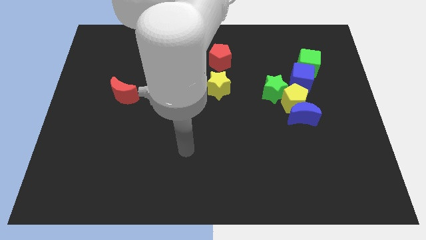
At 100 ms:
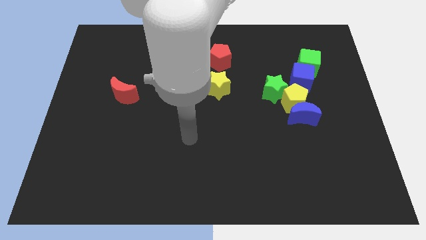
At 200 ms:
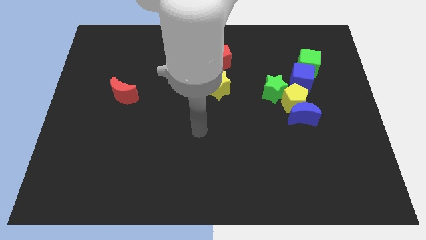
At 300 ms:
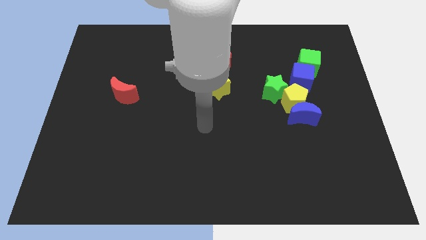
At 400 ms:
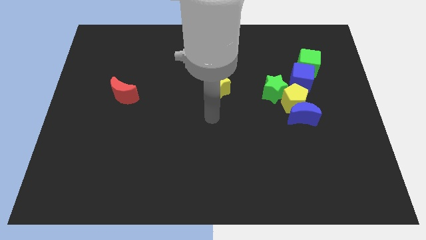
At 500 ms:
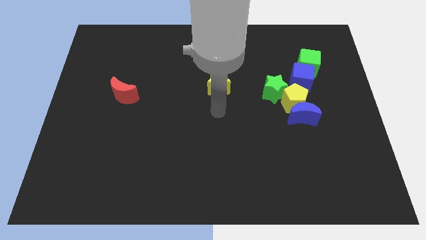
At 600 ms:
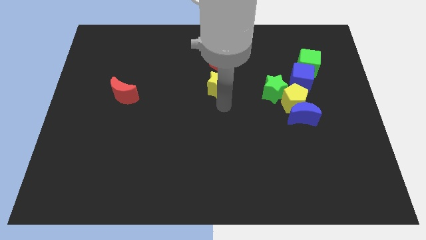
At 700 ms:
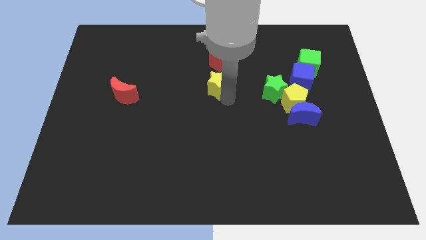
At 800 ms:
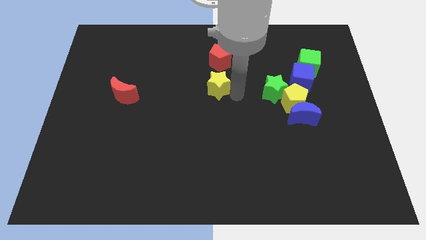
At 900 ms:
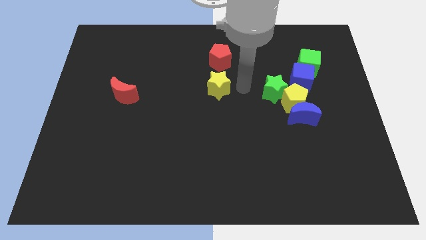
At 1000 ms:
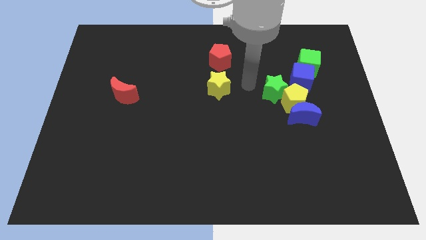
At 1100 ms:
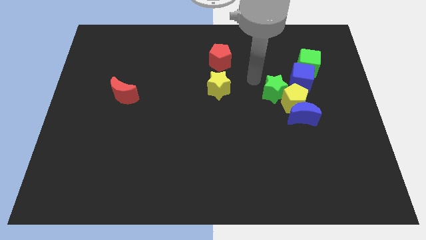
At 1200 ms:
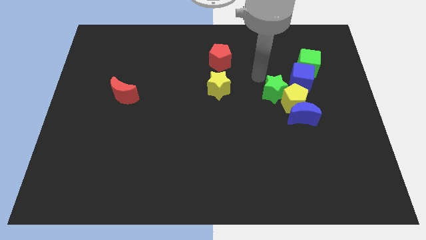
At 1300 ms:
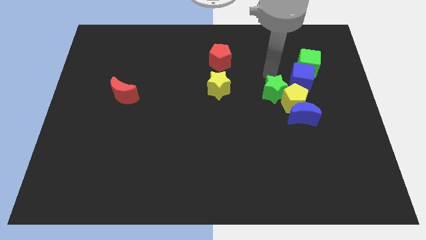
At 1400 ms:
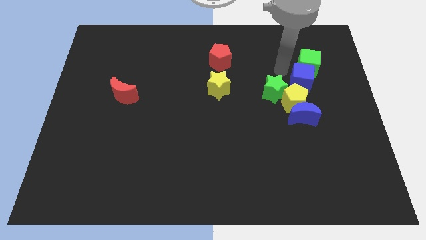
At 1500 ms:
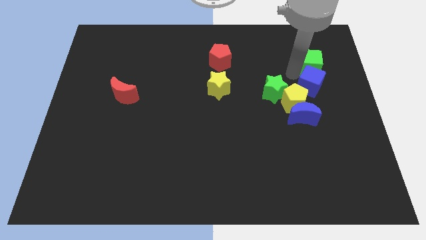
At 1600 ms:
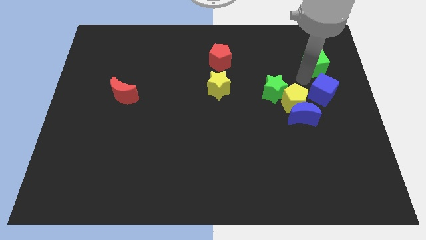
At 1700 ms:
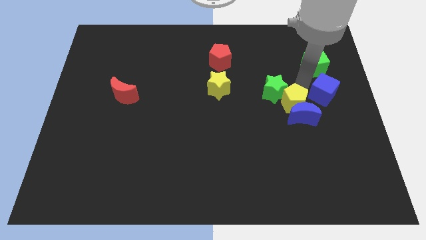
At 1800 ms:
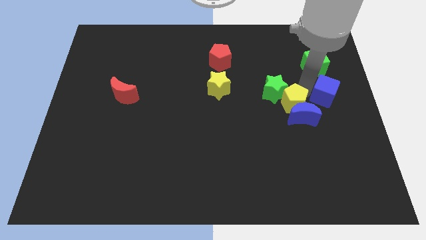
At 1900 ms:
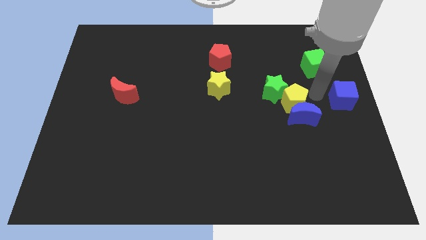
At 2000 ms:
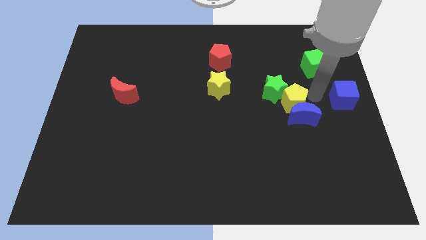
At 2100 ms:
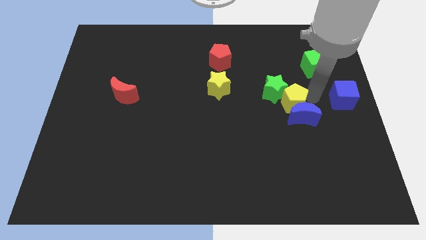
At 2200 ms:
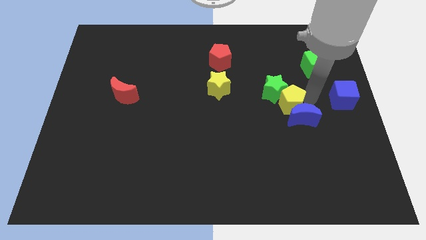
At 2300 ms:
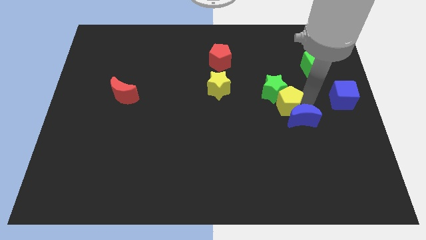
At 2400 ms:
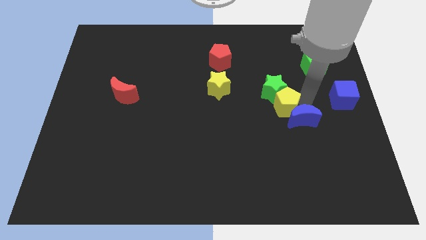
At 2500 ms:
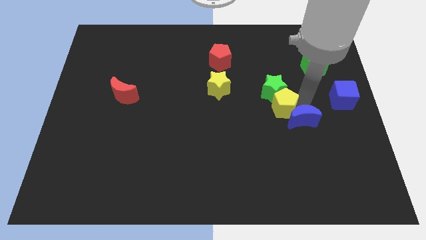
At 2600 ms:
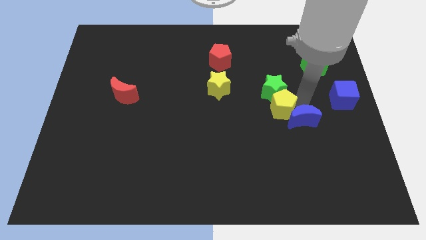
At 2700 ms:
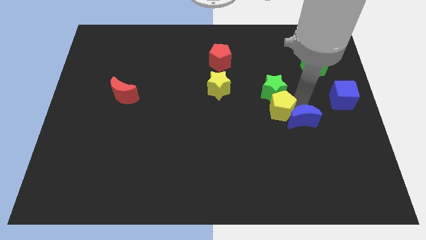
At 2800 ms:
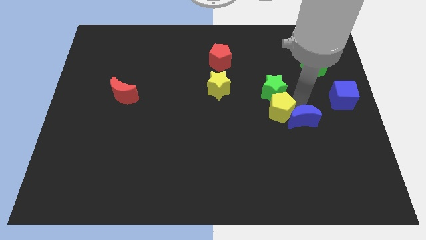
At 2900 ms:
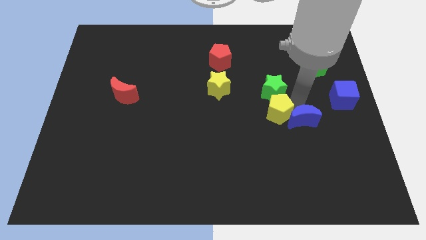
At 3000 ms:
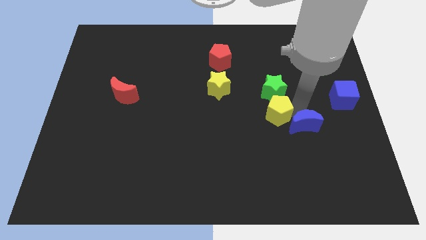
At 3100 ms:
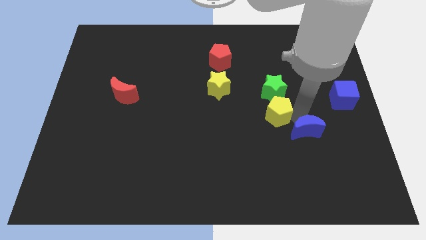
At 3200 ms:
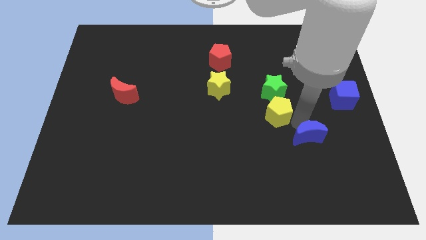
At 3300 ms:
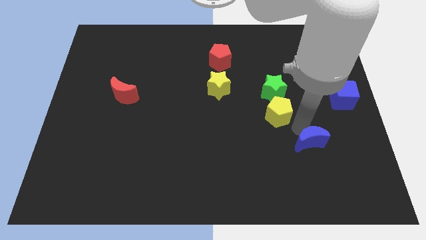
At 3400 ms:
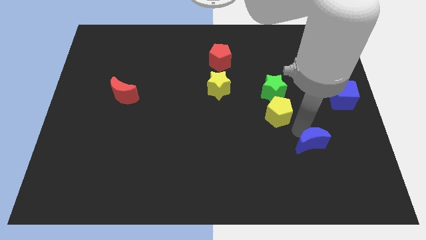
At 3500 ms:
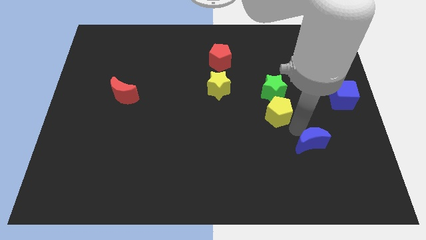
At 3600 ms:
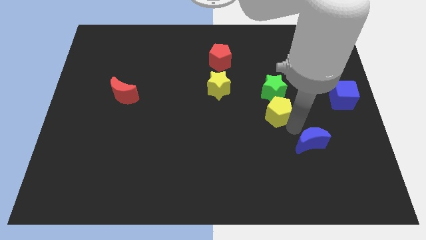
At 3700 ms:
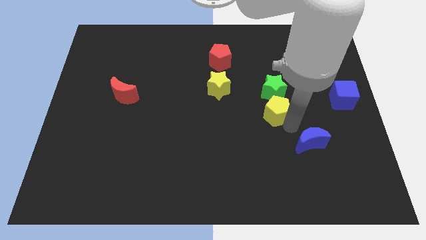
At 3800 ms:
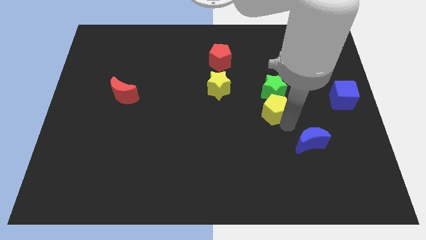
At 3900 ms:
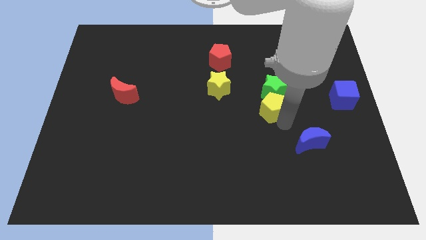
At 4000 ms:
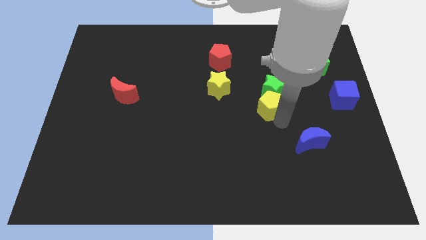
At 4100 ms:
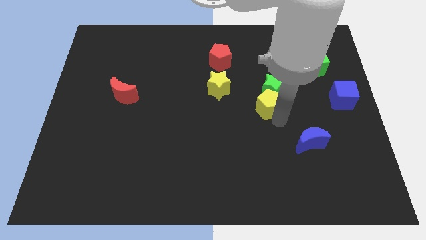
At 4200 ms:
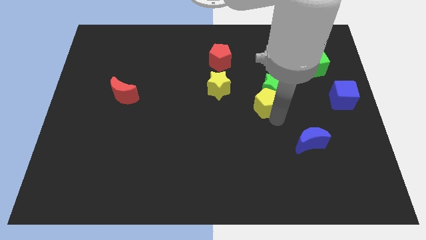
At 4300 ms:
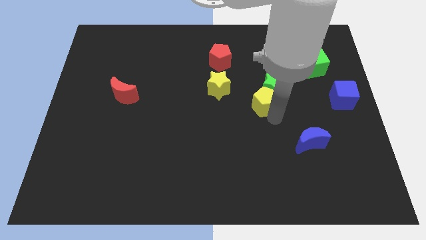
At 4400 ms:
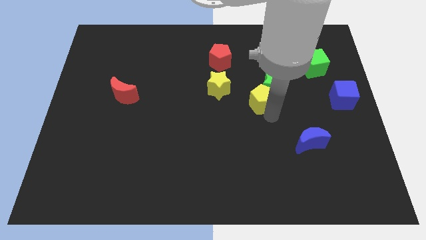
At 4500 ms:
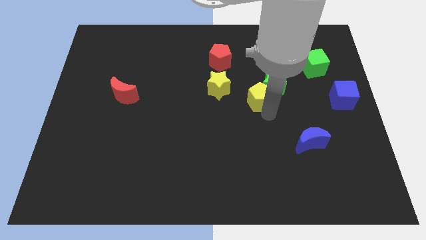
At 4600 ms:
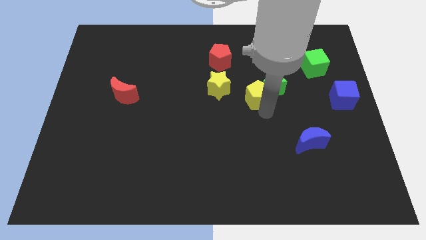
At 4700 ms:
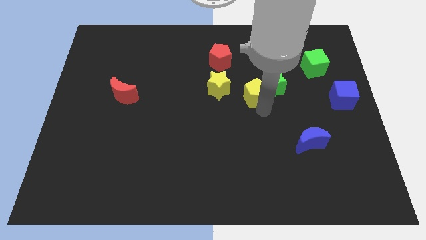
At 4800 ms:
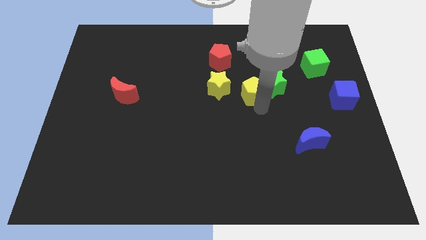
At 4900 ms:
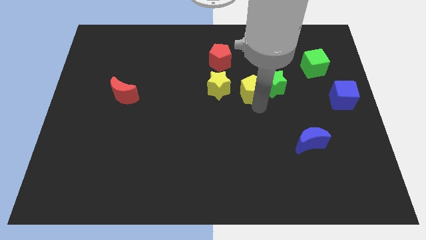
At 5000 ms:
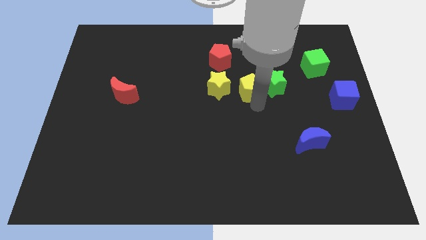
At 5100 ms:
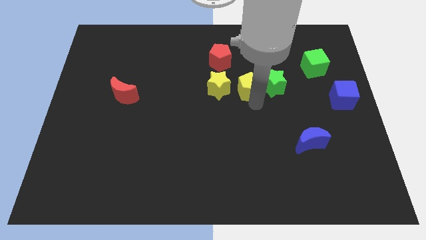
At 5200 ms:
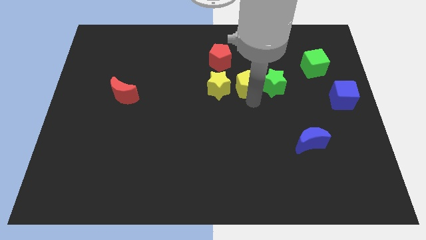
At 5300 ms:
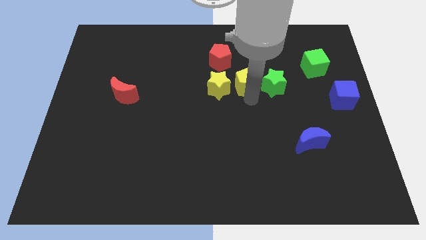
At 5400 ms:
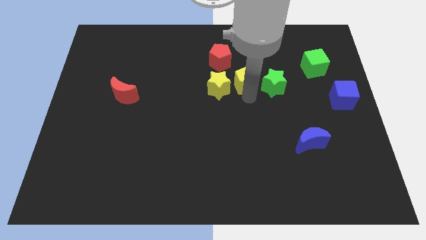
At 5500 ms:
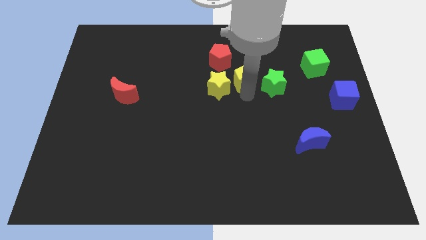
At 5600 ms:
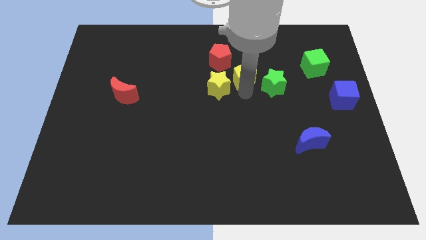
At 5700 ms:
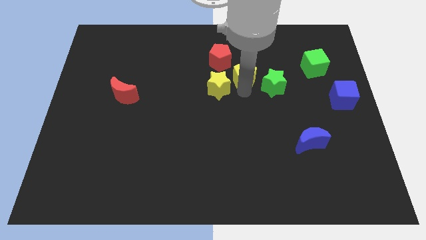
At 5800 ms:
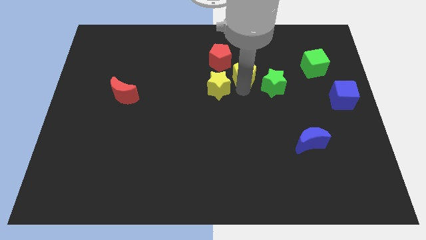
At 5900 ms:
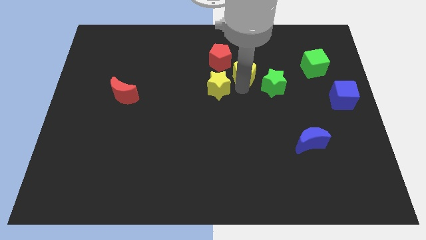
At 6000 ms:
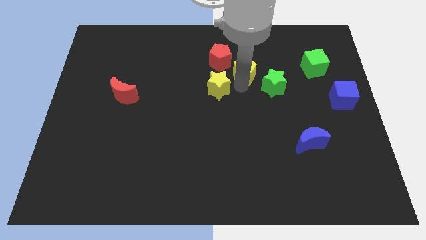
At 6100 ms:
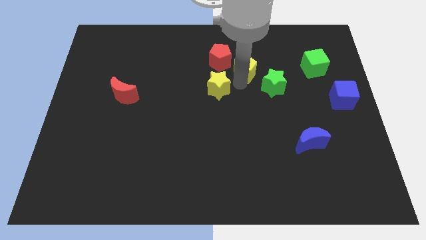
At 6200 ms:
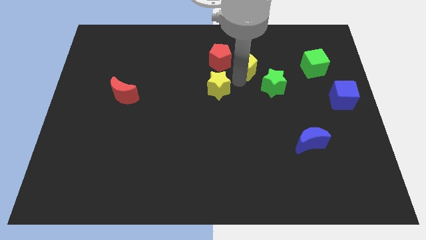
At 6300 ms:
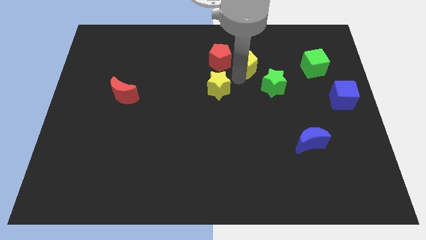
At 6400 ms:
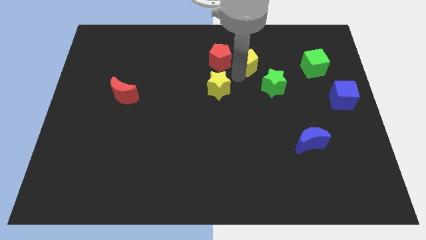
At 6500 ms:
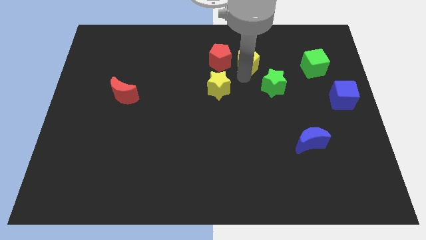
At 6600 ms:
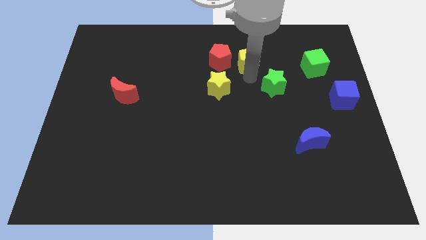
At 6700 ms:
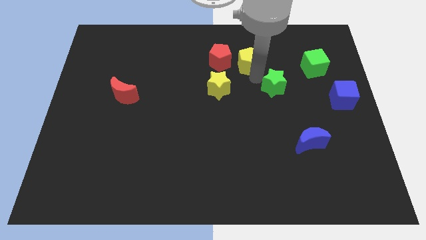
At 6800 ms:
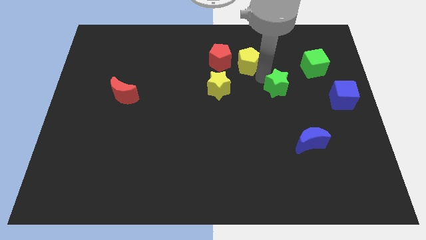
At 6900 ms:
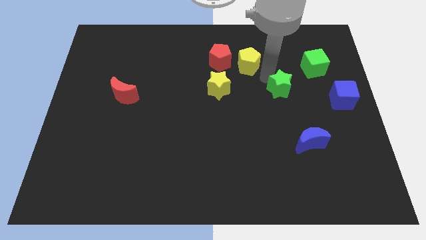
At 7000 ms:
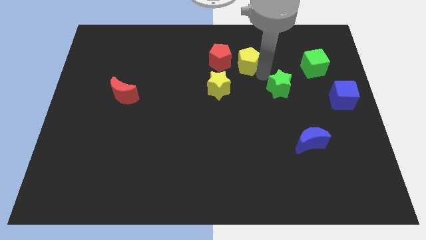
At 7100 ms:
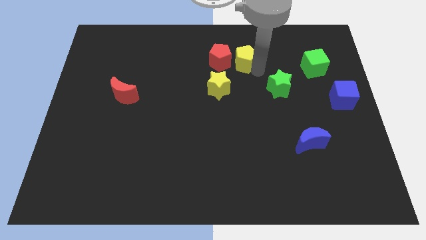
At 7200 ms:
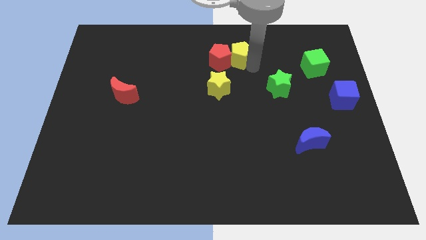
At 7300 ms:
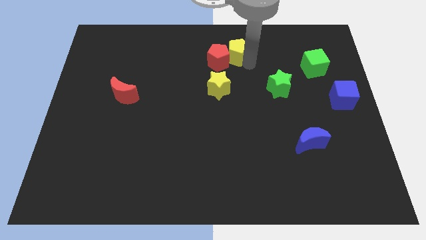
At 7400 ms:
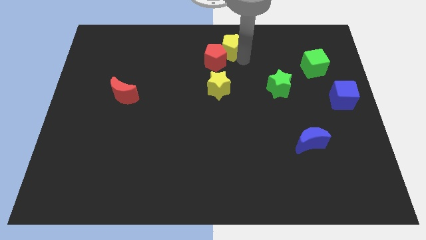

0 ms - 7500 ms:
put the yellow pentagon to the top
